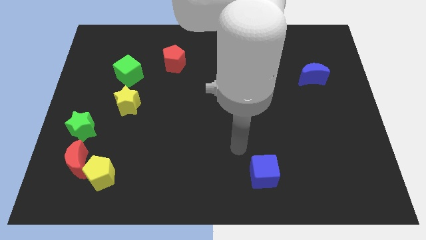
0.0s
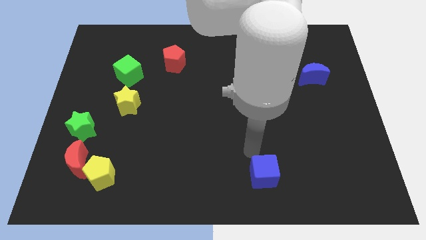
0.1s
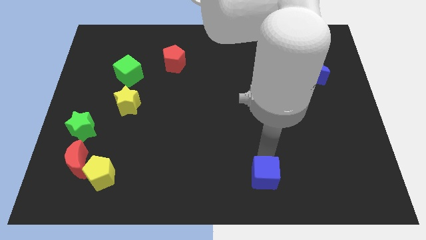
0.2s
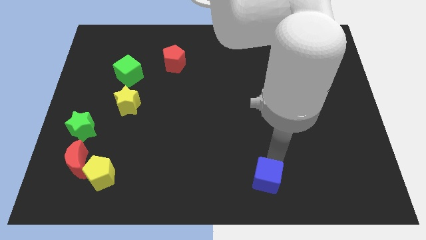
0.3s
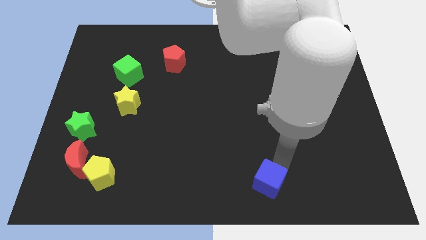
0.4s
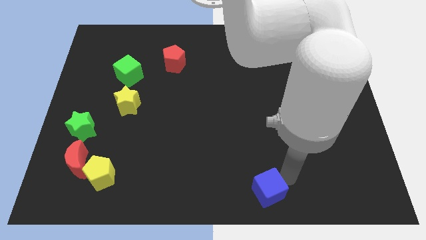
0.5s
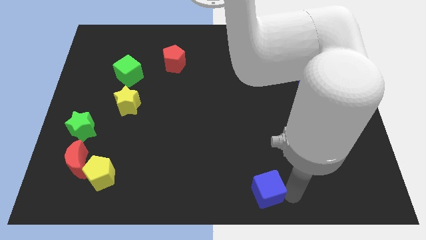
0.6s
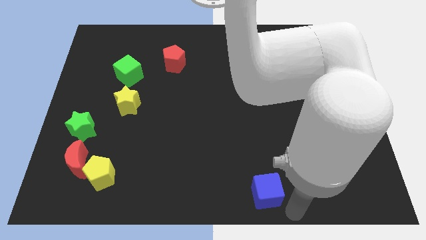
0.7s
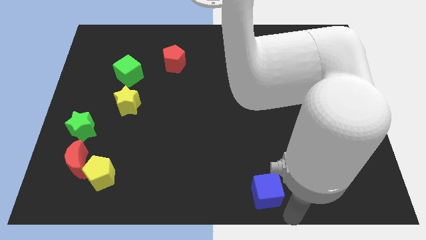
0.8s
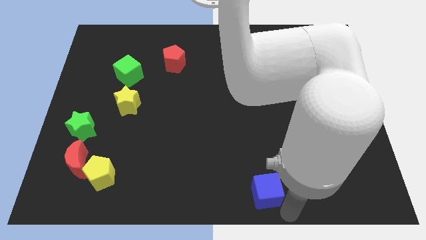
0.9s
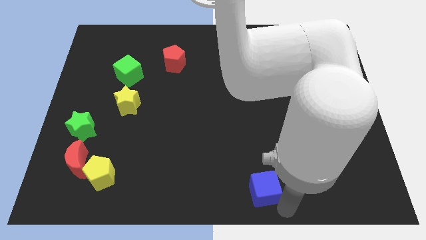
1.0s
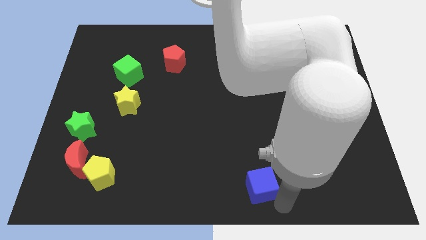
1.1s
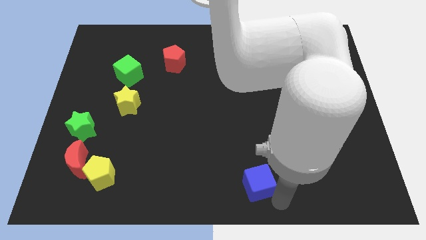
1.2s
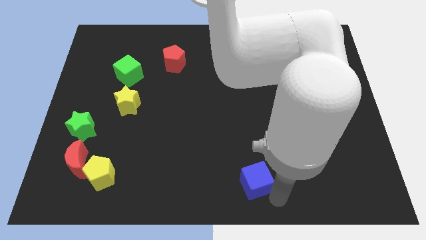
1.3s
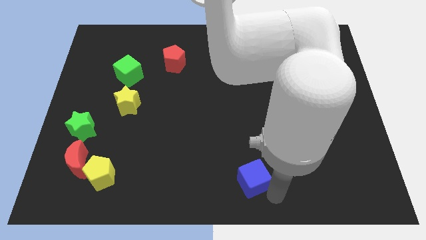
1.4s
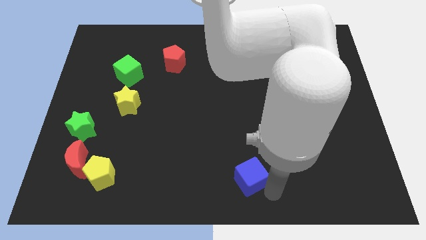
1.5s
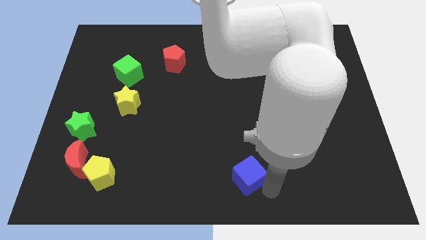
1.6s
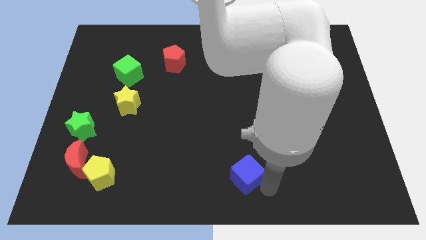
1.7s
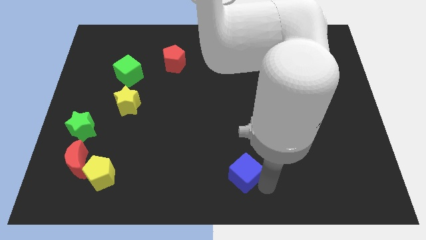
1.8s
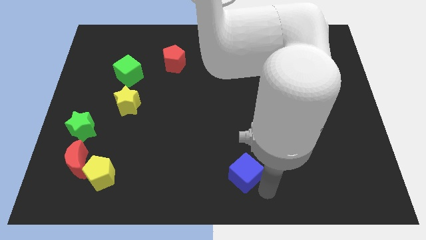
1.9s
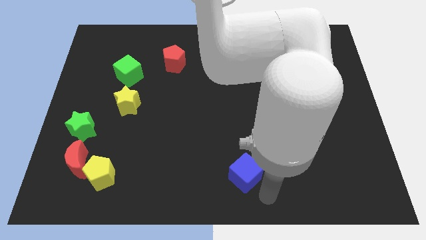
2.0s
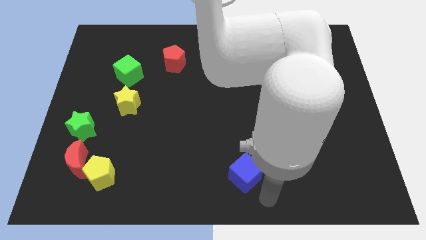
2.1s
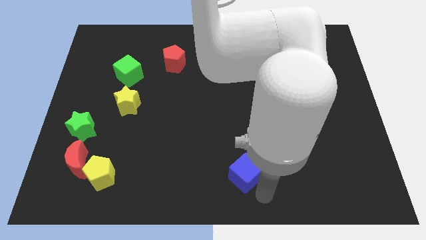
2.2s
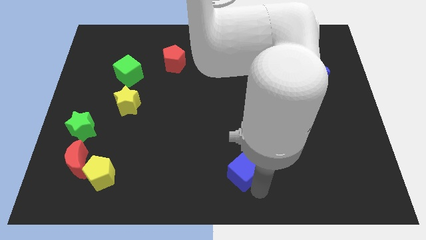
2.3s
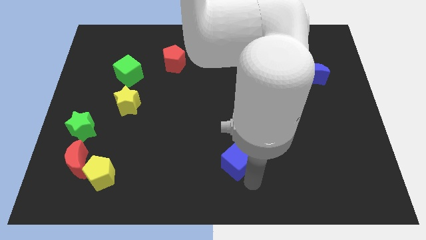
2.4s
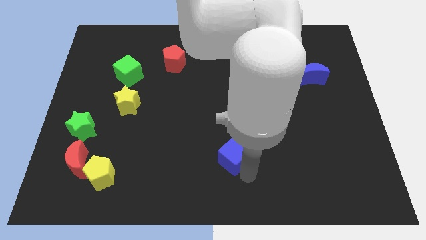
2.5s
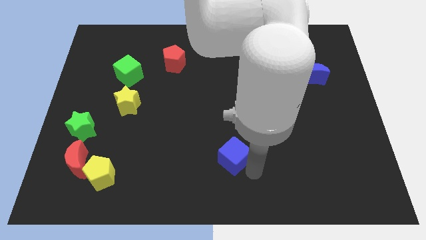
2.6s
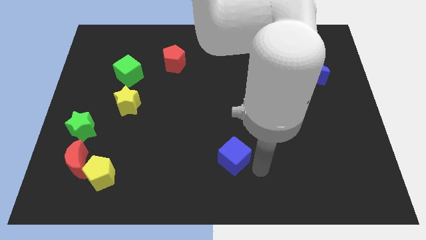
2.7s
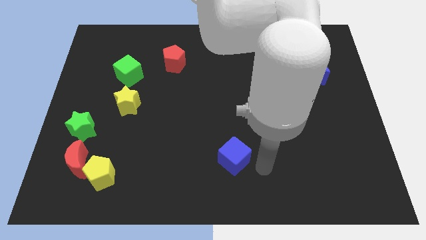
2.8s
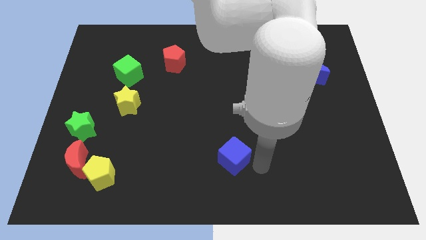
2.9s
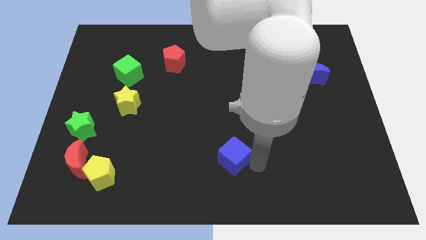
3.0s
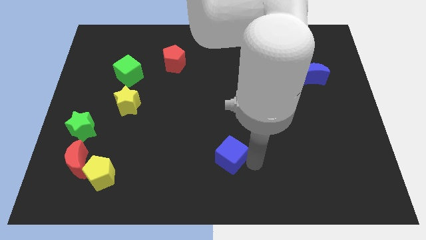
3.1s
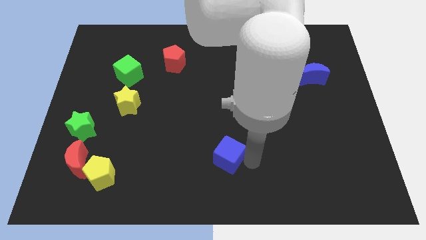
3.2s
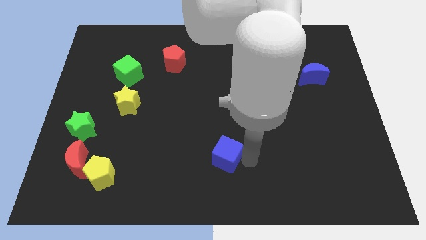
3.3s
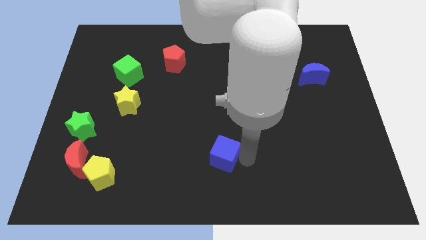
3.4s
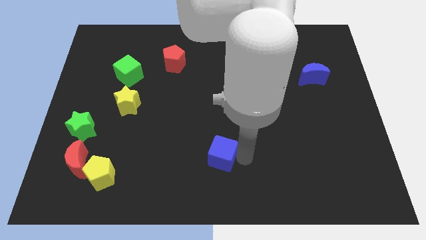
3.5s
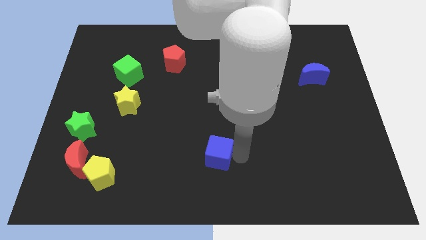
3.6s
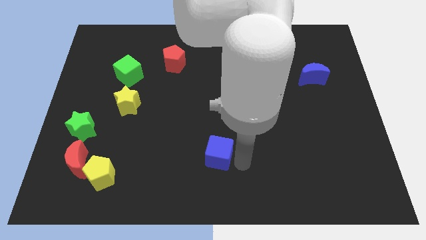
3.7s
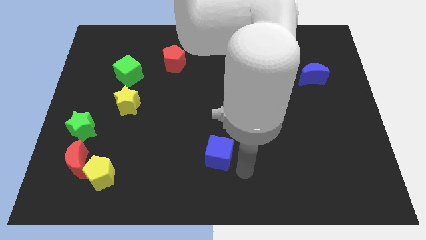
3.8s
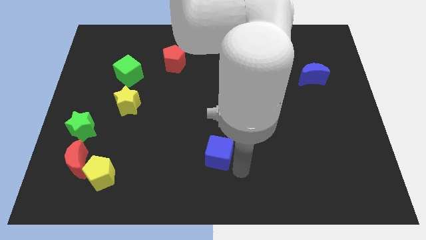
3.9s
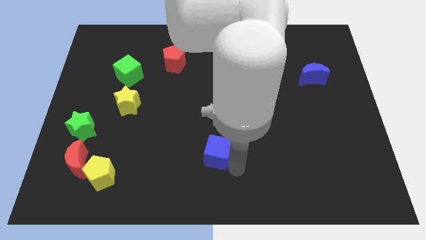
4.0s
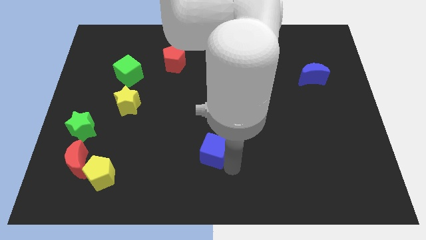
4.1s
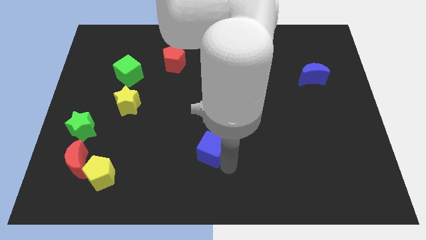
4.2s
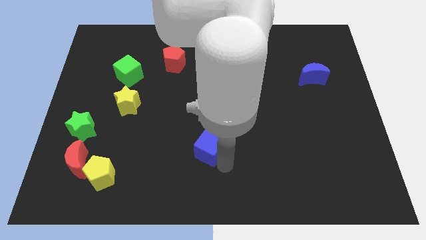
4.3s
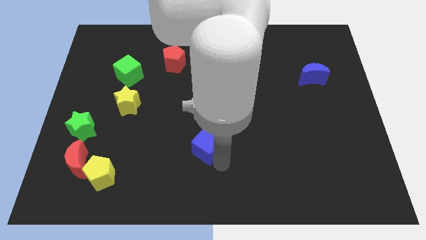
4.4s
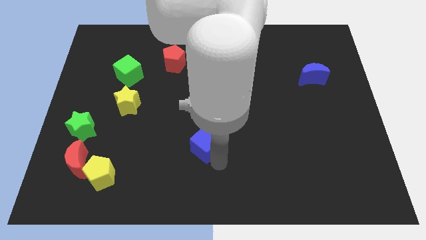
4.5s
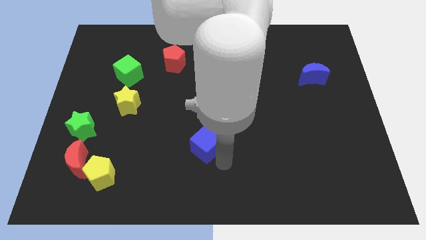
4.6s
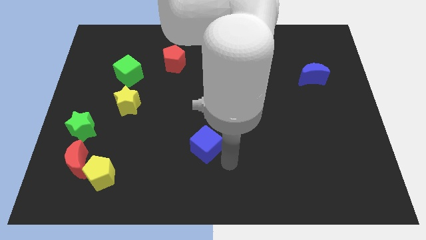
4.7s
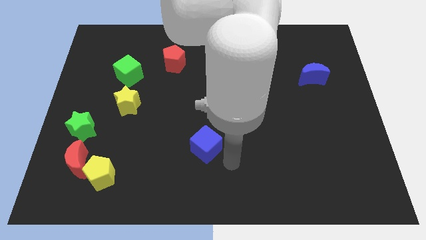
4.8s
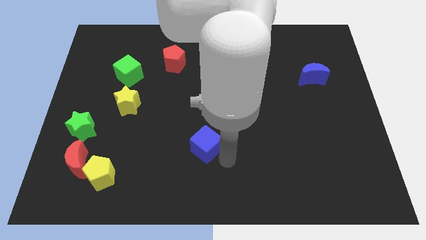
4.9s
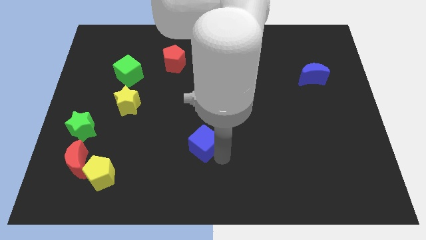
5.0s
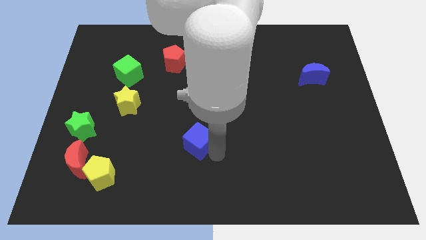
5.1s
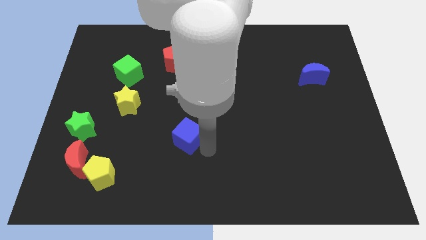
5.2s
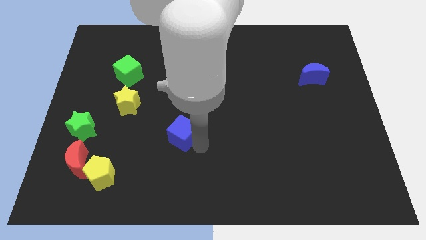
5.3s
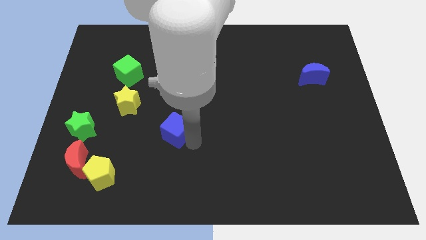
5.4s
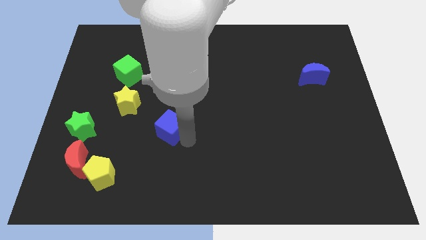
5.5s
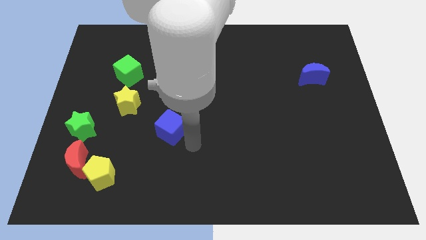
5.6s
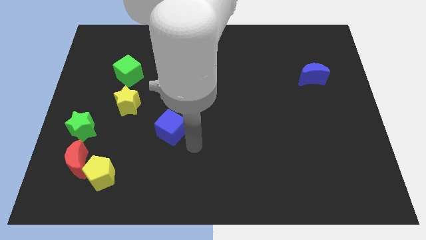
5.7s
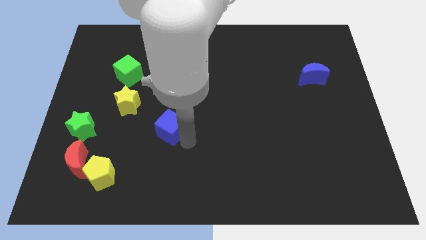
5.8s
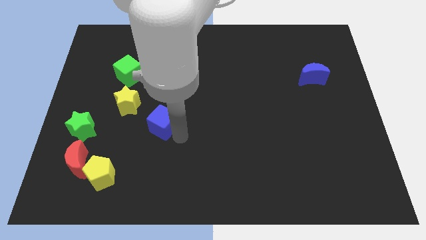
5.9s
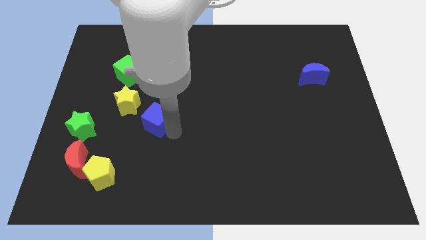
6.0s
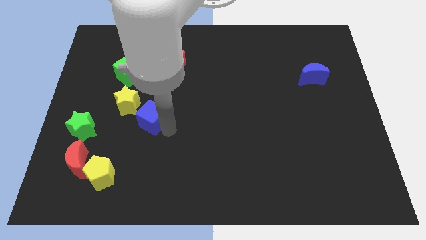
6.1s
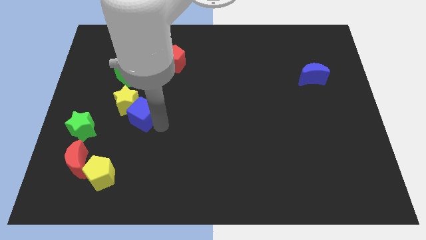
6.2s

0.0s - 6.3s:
push the blue cube to the yellow star

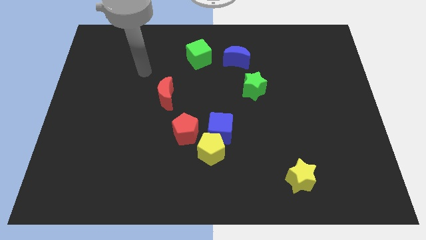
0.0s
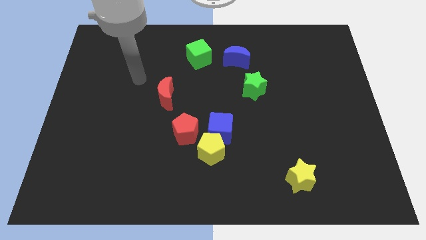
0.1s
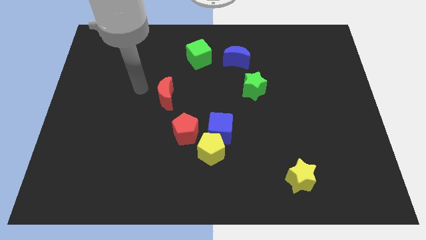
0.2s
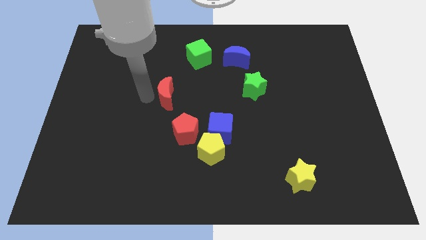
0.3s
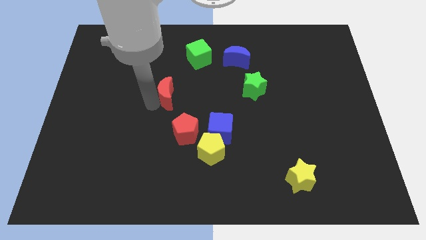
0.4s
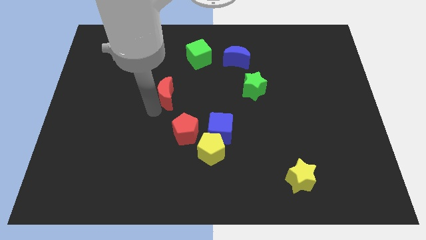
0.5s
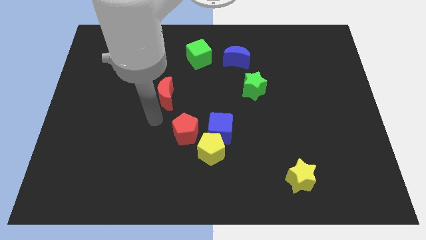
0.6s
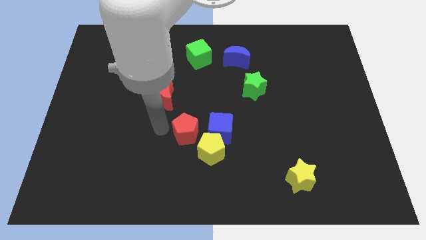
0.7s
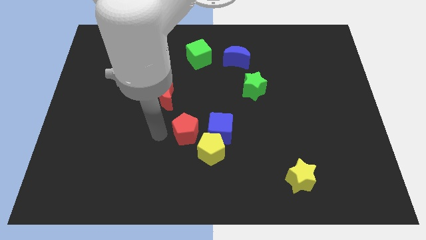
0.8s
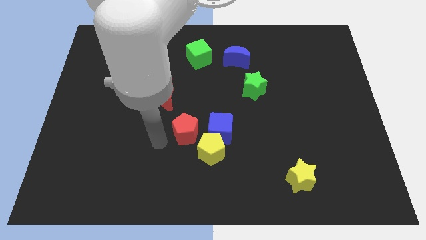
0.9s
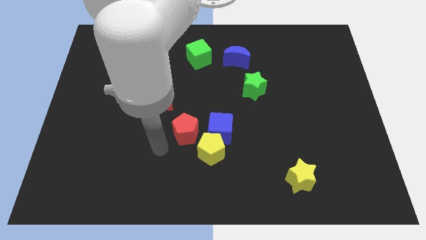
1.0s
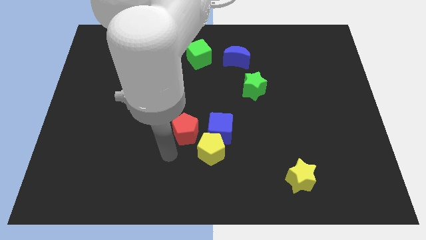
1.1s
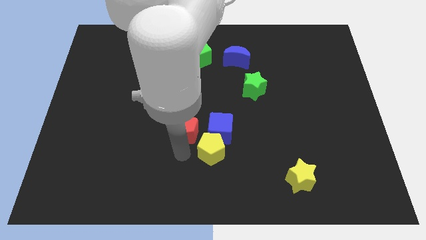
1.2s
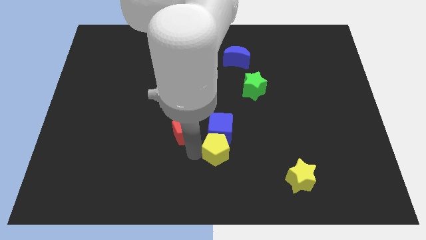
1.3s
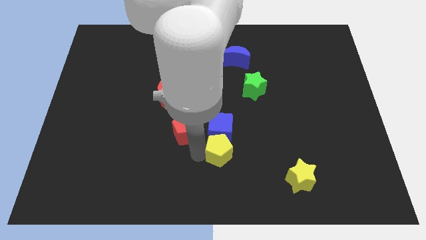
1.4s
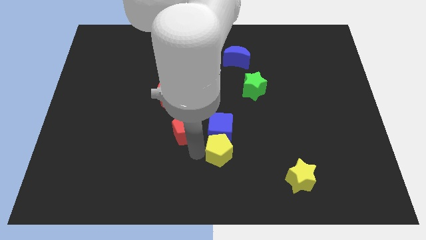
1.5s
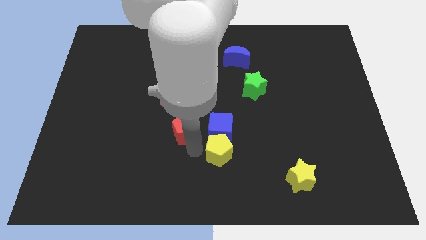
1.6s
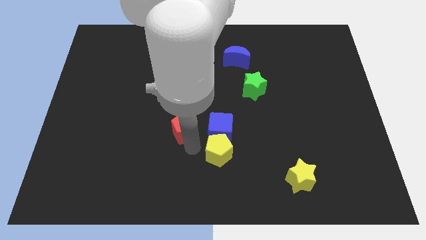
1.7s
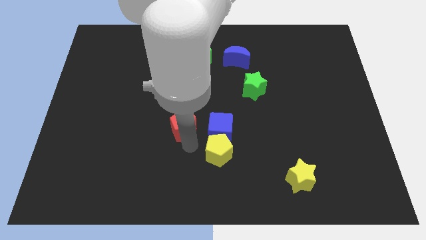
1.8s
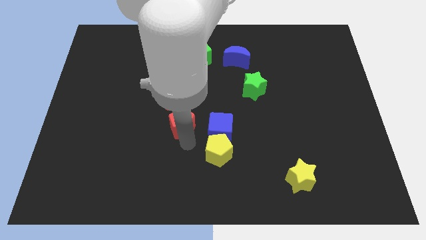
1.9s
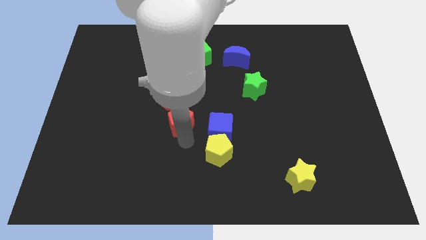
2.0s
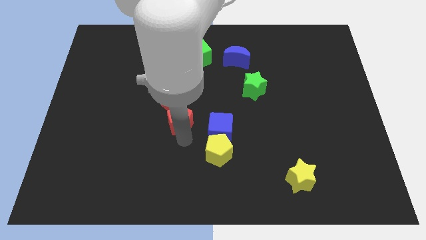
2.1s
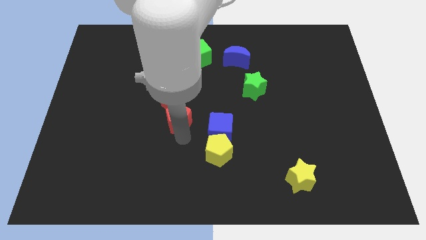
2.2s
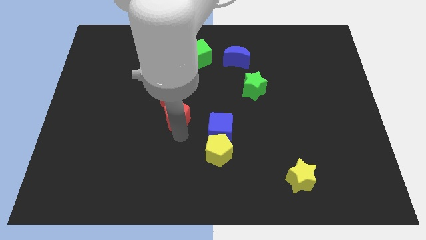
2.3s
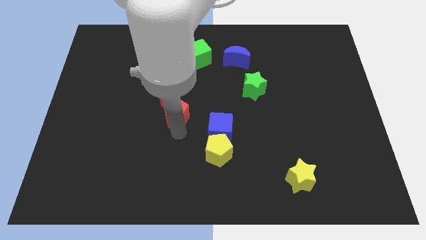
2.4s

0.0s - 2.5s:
move the red pentagon close to the red moon
